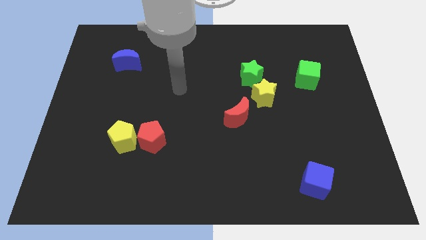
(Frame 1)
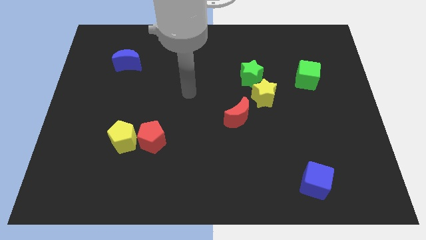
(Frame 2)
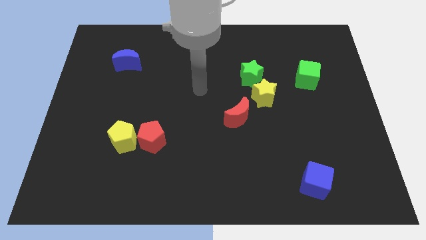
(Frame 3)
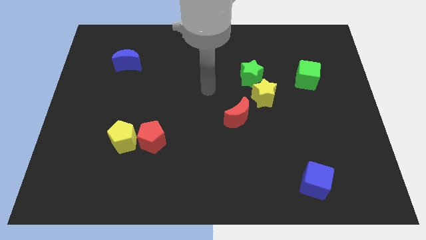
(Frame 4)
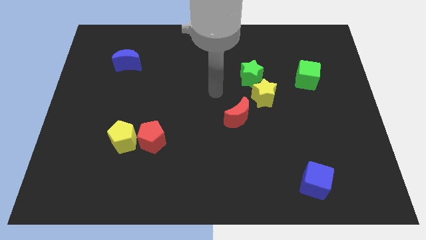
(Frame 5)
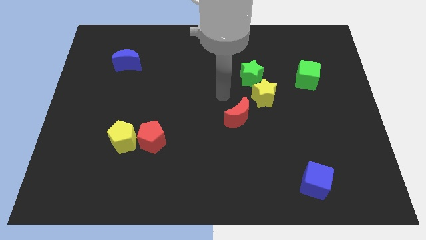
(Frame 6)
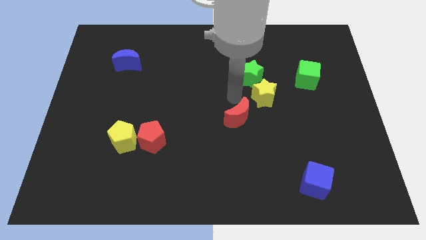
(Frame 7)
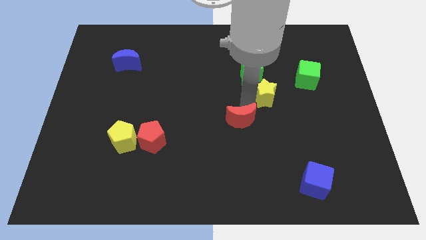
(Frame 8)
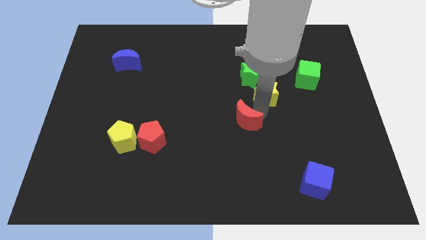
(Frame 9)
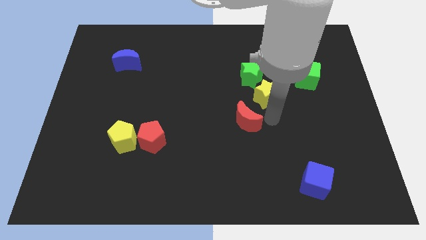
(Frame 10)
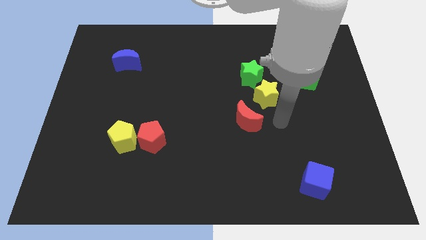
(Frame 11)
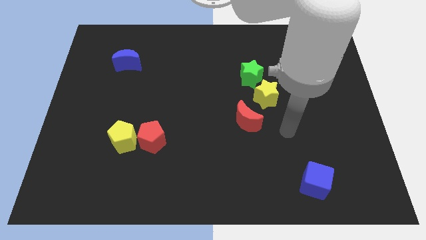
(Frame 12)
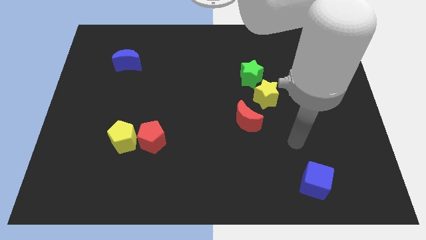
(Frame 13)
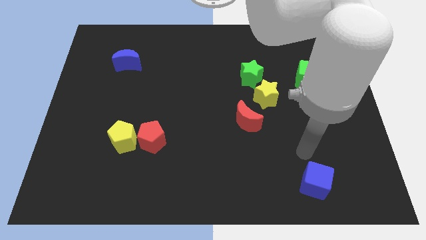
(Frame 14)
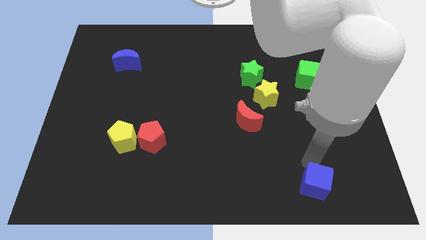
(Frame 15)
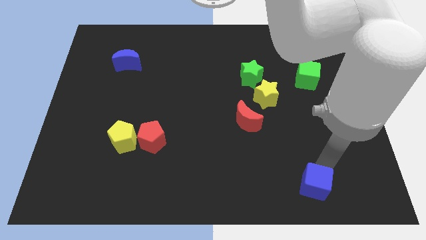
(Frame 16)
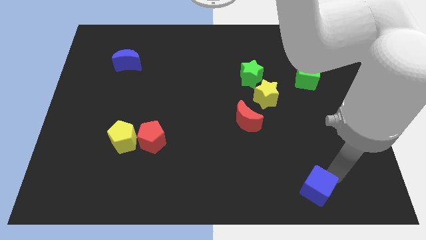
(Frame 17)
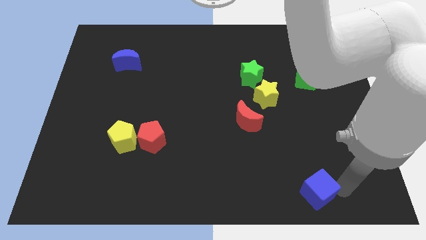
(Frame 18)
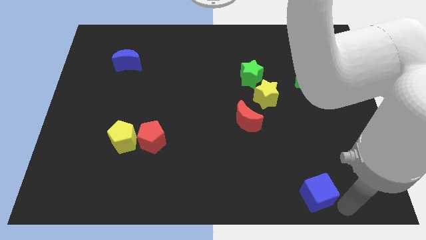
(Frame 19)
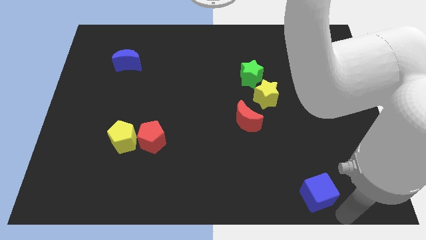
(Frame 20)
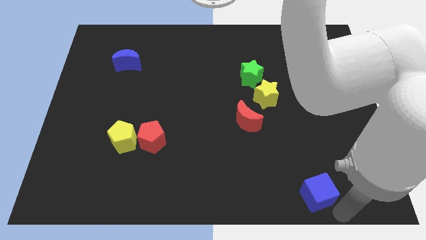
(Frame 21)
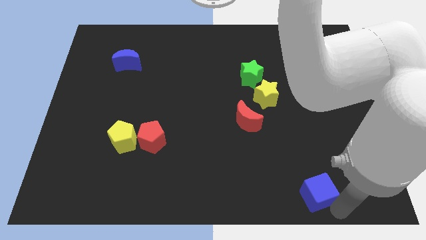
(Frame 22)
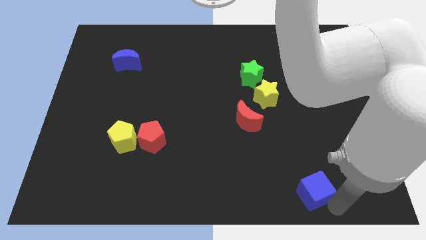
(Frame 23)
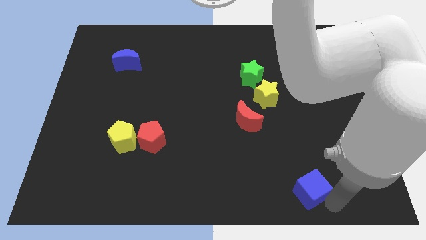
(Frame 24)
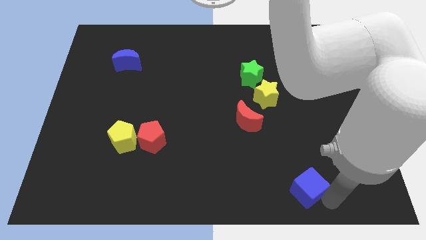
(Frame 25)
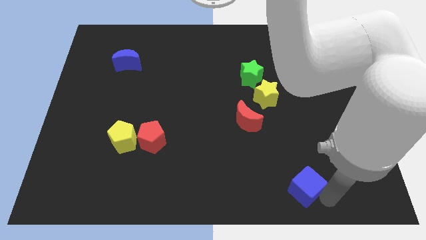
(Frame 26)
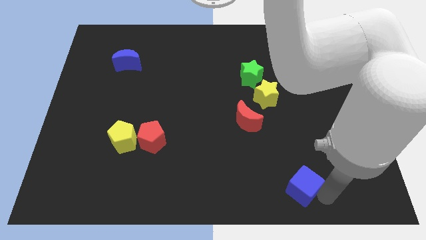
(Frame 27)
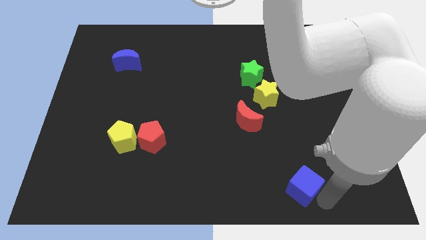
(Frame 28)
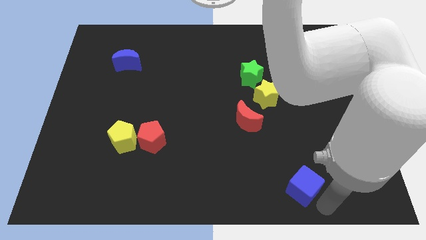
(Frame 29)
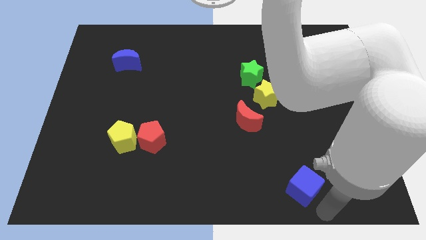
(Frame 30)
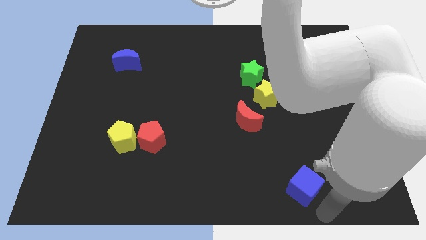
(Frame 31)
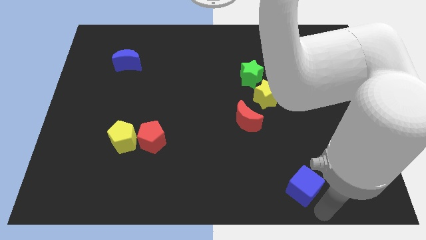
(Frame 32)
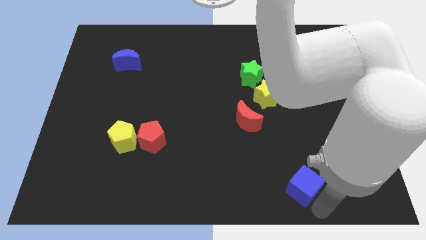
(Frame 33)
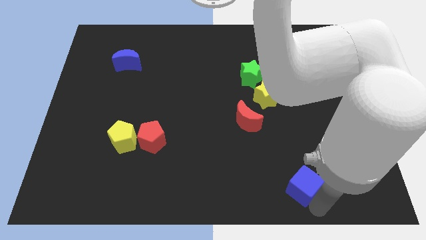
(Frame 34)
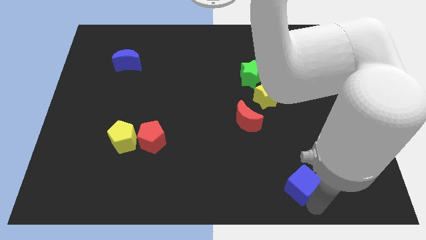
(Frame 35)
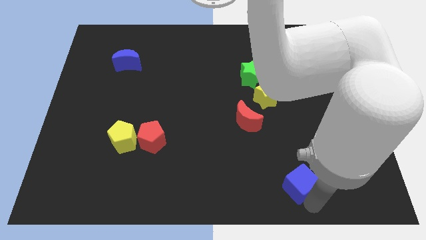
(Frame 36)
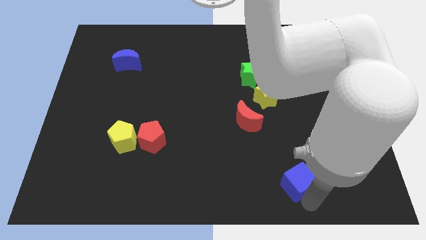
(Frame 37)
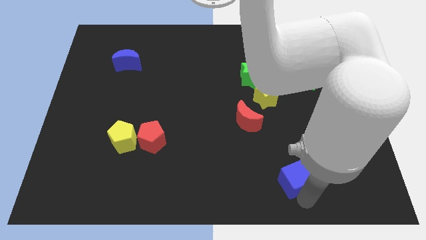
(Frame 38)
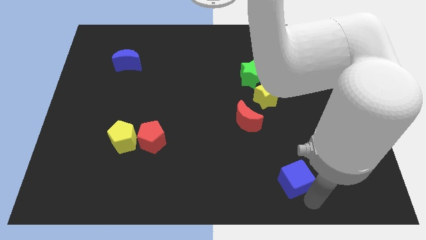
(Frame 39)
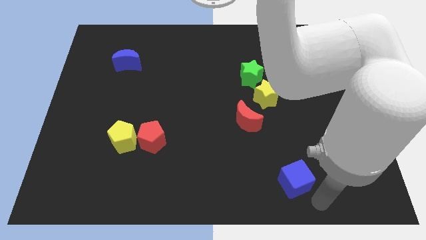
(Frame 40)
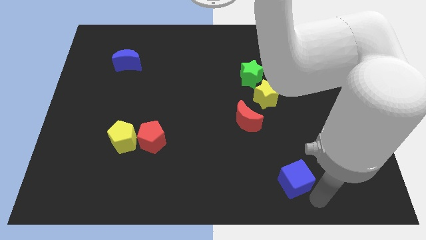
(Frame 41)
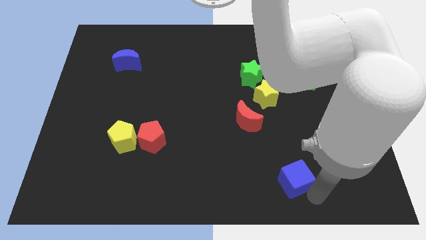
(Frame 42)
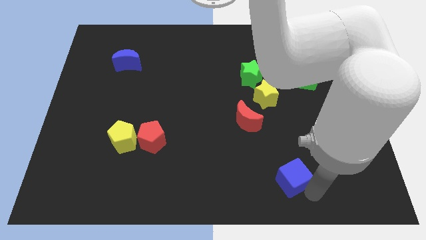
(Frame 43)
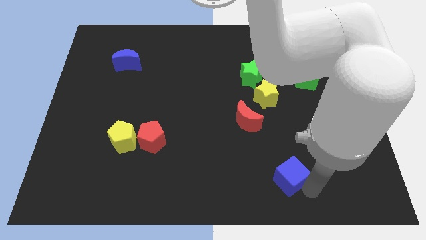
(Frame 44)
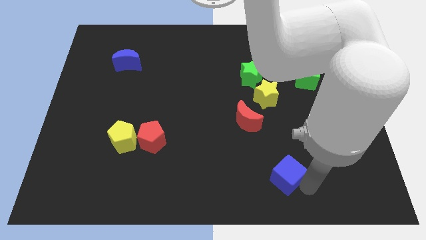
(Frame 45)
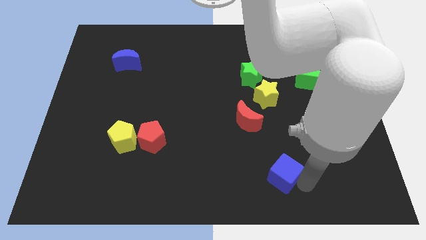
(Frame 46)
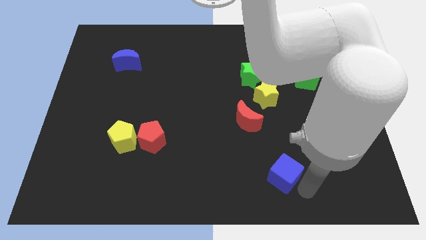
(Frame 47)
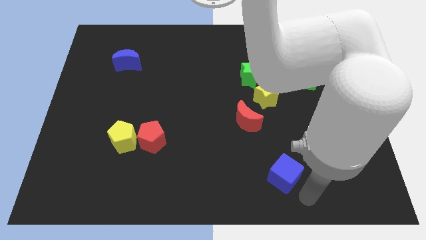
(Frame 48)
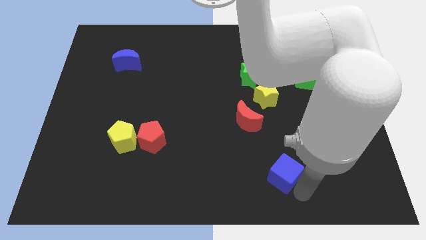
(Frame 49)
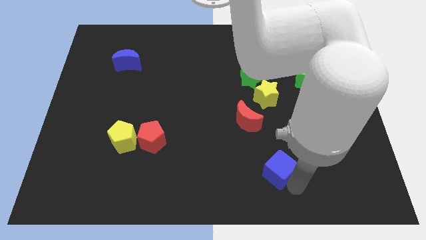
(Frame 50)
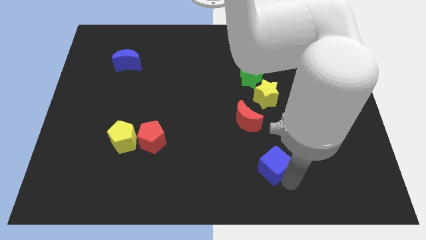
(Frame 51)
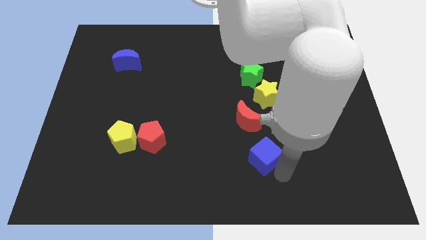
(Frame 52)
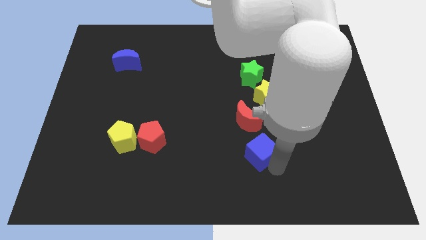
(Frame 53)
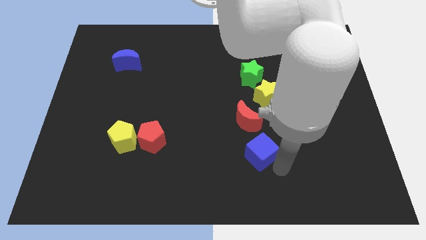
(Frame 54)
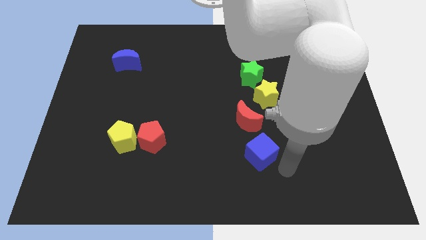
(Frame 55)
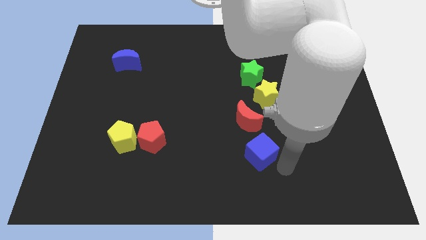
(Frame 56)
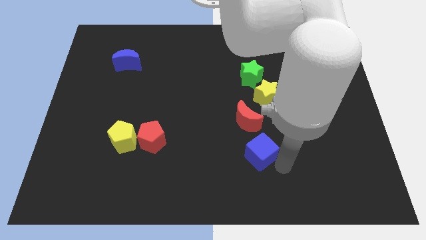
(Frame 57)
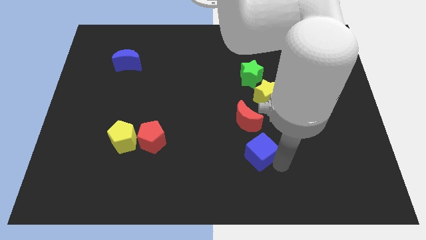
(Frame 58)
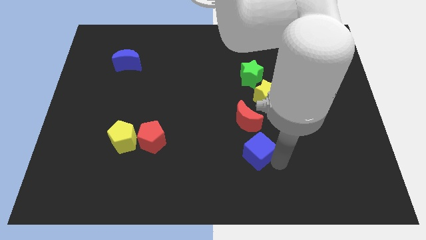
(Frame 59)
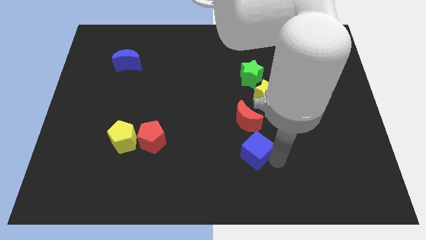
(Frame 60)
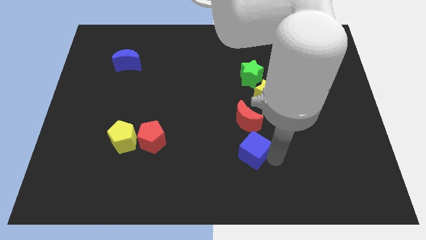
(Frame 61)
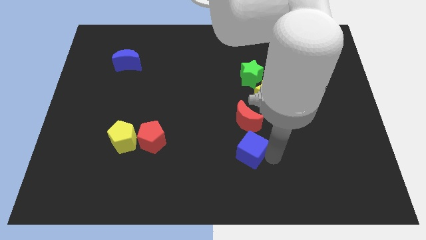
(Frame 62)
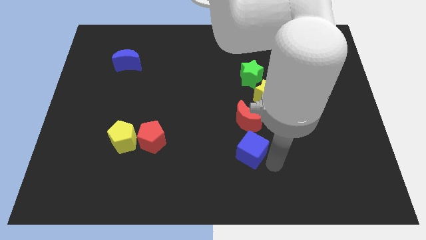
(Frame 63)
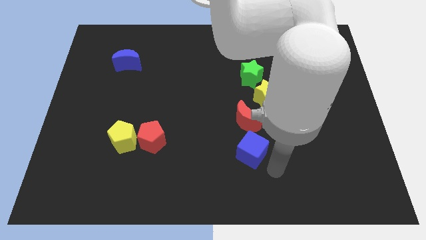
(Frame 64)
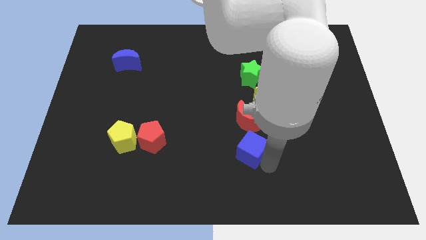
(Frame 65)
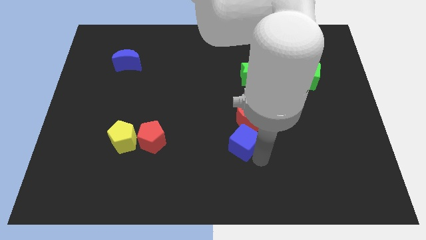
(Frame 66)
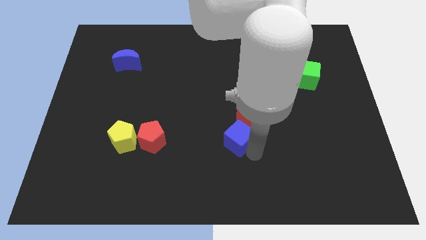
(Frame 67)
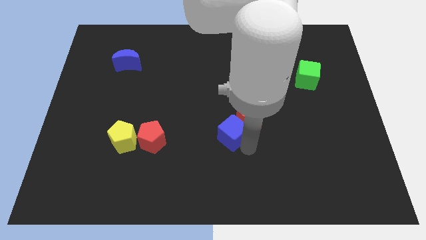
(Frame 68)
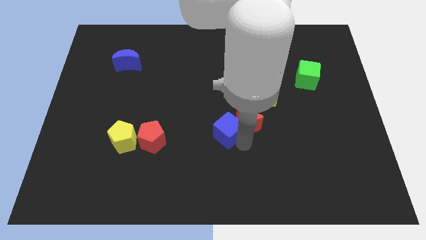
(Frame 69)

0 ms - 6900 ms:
move the blue cube diagonally upwards and left

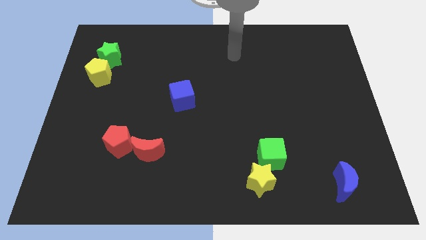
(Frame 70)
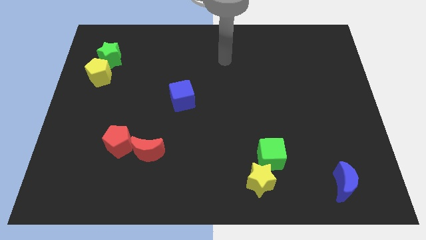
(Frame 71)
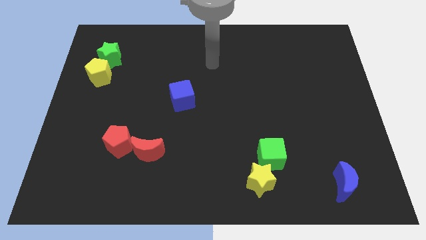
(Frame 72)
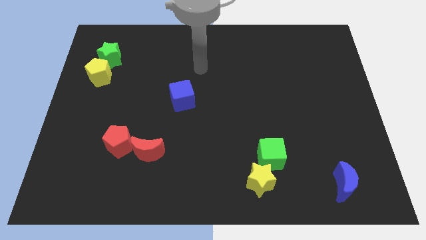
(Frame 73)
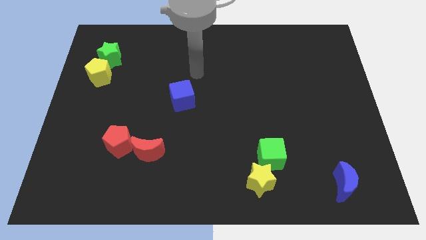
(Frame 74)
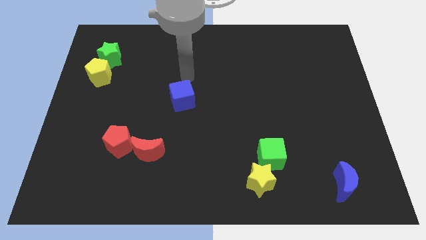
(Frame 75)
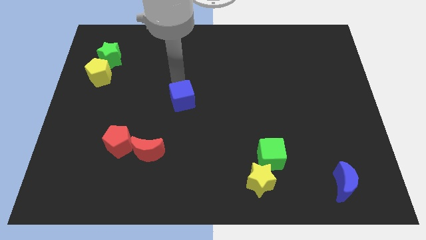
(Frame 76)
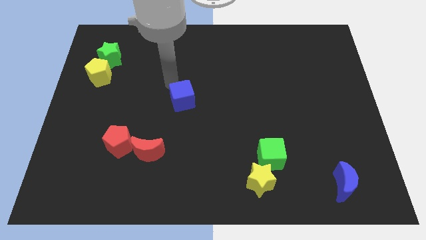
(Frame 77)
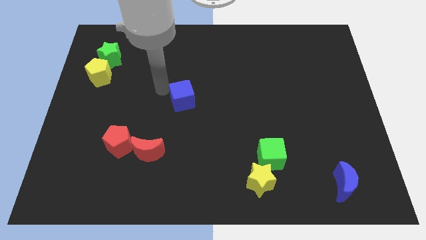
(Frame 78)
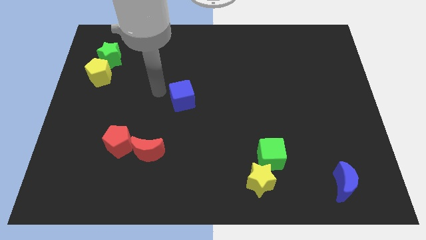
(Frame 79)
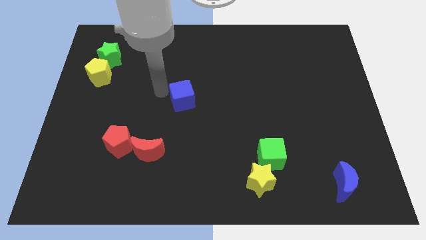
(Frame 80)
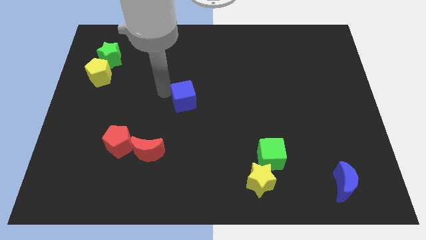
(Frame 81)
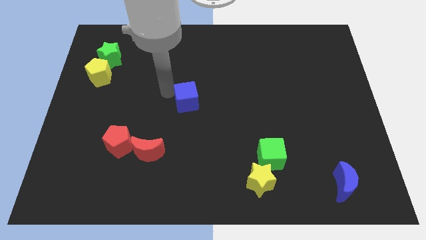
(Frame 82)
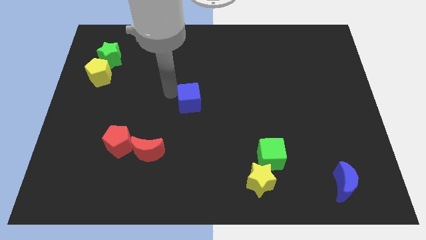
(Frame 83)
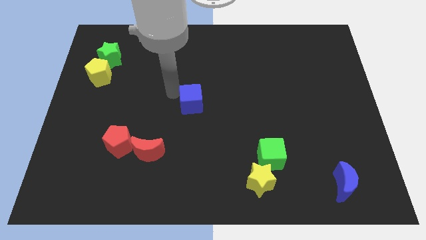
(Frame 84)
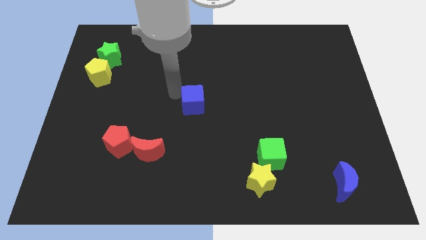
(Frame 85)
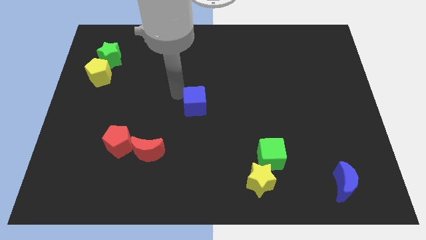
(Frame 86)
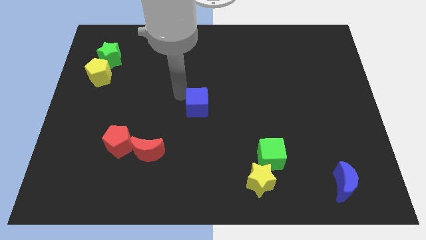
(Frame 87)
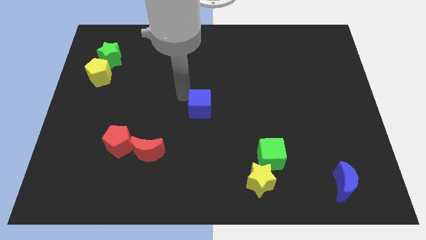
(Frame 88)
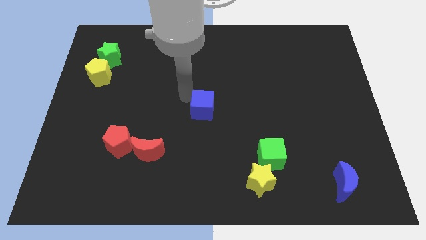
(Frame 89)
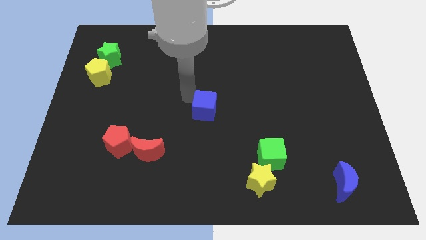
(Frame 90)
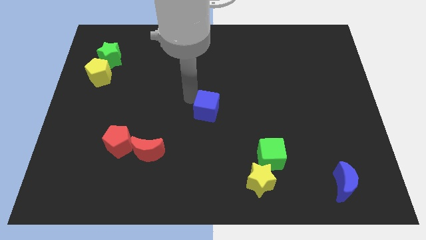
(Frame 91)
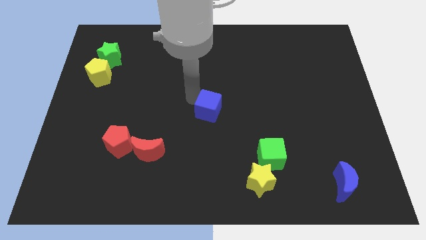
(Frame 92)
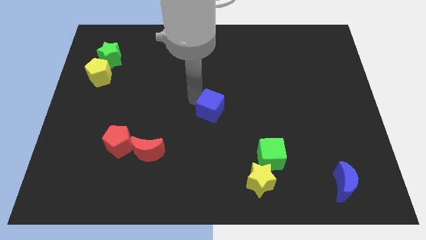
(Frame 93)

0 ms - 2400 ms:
slide the blue cube diagonally down and right slightly
